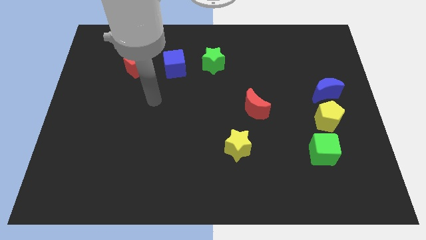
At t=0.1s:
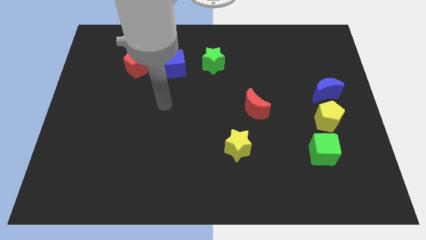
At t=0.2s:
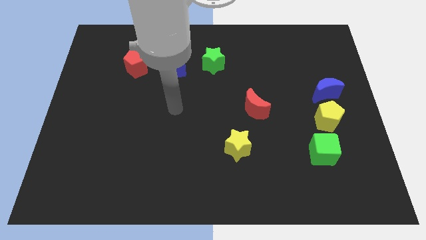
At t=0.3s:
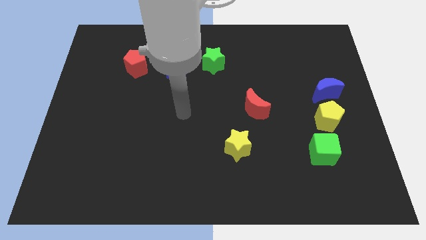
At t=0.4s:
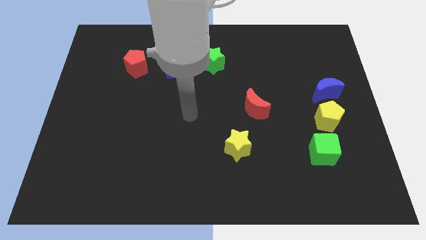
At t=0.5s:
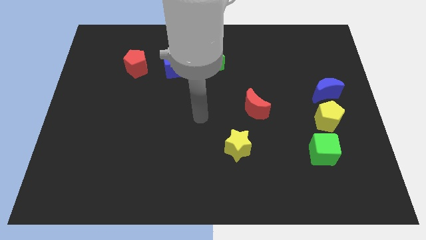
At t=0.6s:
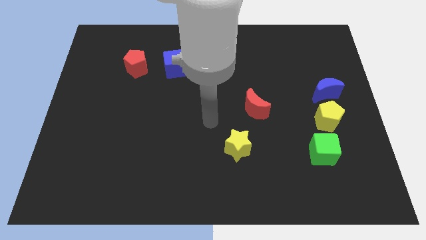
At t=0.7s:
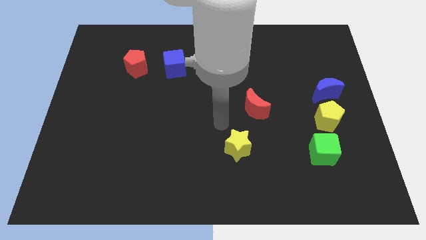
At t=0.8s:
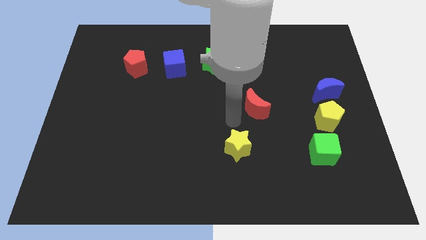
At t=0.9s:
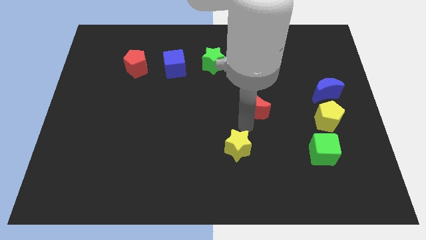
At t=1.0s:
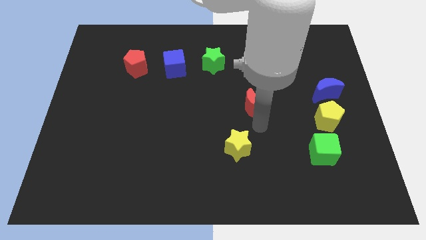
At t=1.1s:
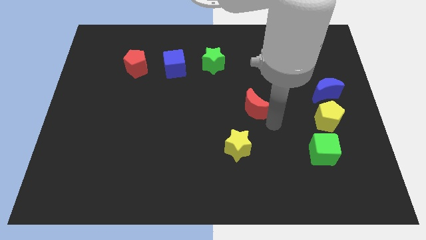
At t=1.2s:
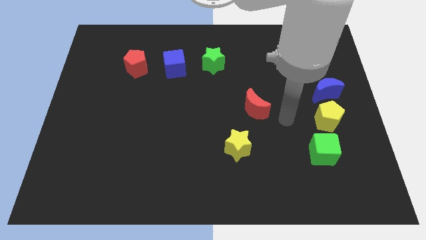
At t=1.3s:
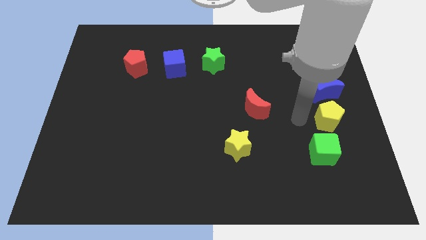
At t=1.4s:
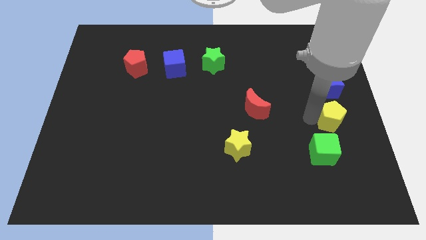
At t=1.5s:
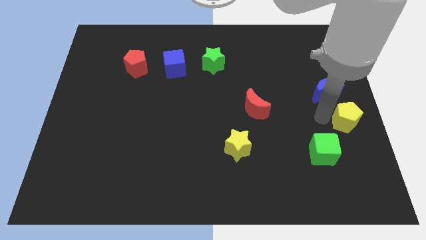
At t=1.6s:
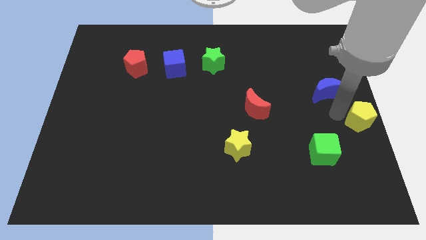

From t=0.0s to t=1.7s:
pull the blue moon apart from the yellow pentagon

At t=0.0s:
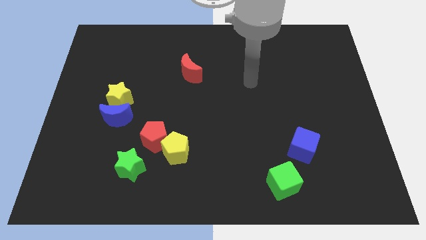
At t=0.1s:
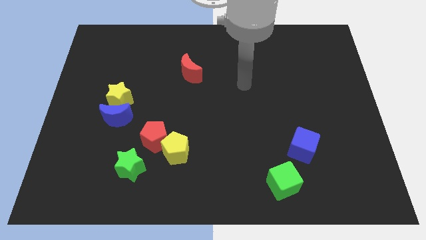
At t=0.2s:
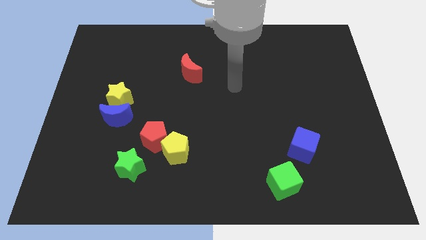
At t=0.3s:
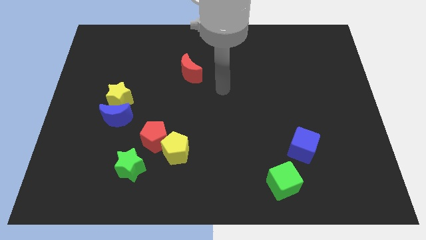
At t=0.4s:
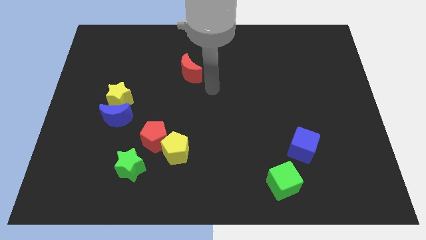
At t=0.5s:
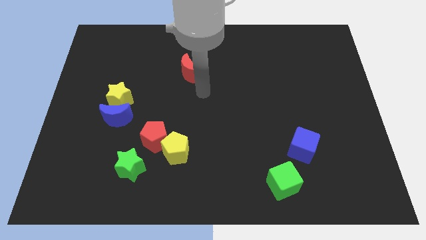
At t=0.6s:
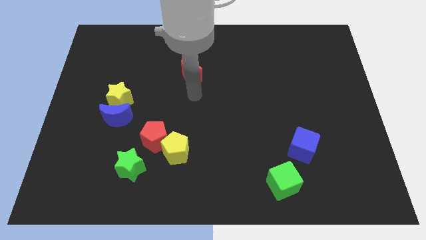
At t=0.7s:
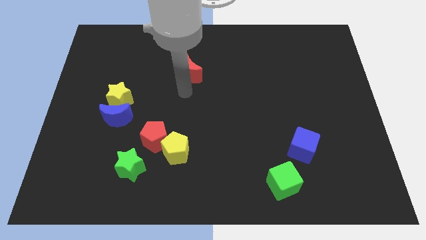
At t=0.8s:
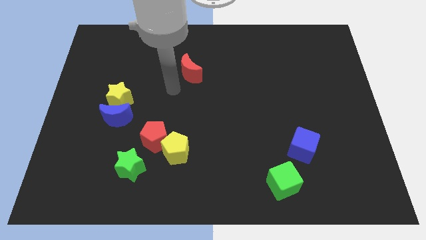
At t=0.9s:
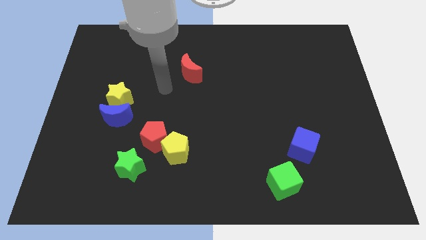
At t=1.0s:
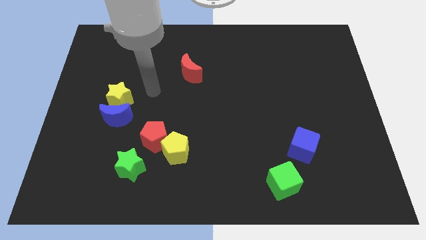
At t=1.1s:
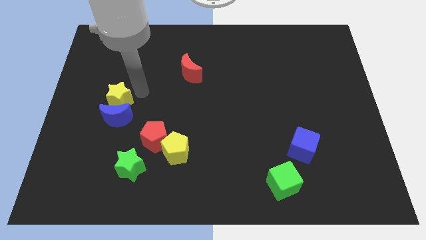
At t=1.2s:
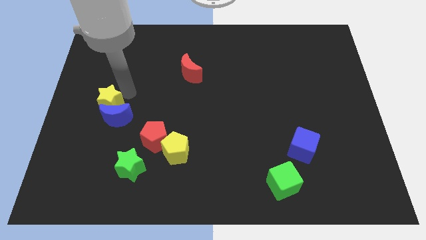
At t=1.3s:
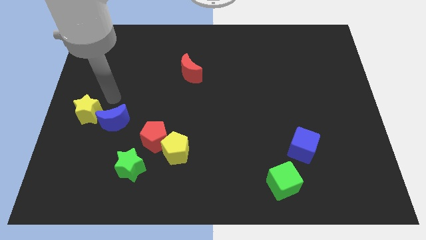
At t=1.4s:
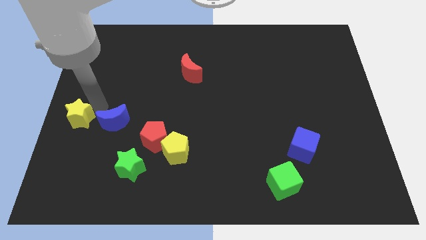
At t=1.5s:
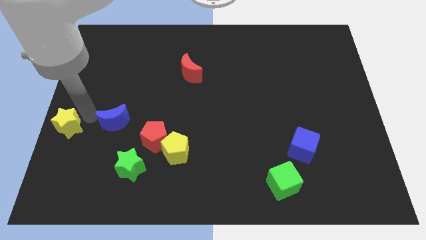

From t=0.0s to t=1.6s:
move the blue moon away from the yellow star

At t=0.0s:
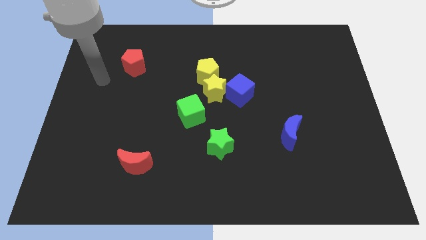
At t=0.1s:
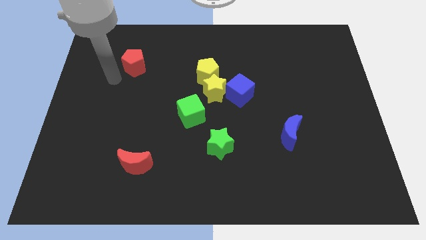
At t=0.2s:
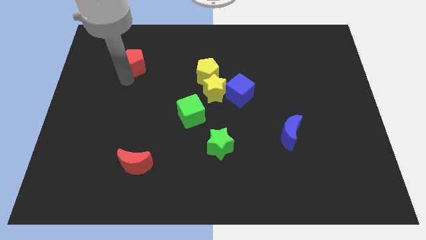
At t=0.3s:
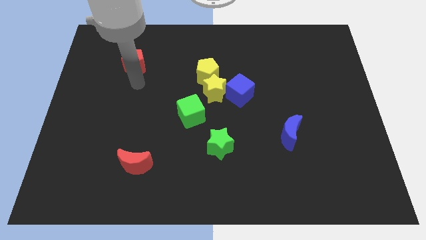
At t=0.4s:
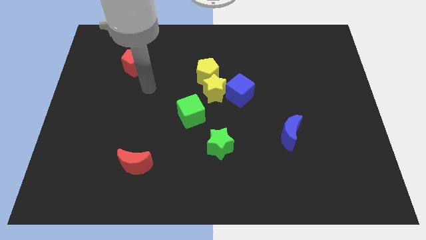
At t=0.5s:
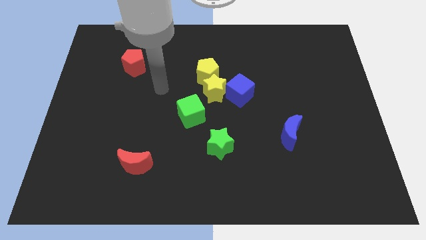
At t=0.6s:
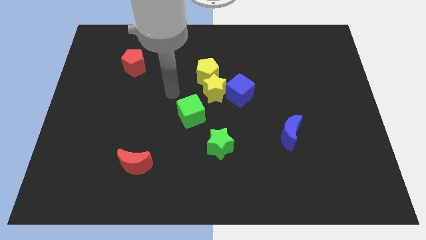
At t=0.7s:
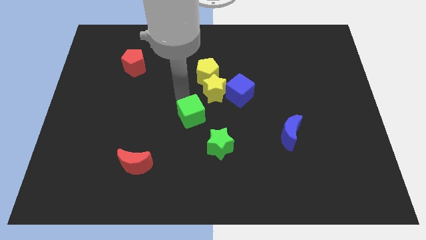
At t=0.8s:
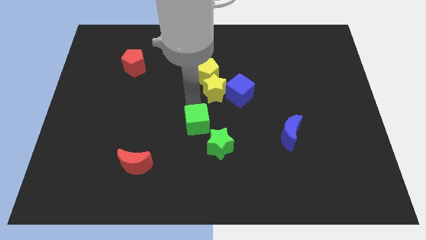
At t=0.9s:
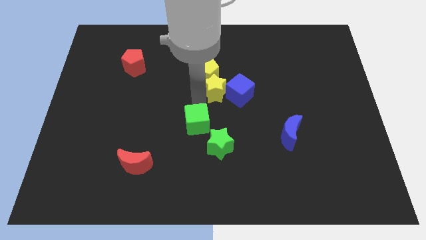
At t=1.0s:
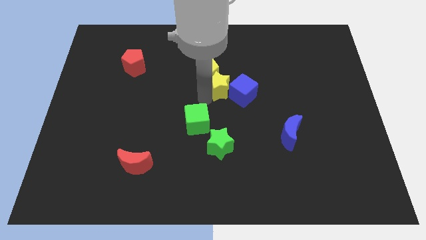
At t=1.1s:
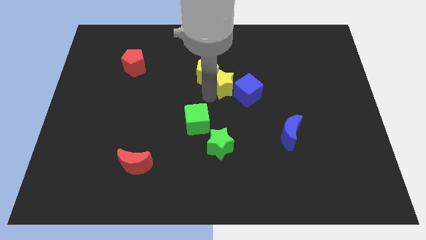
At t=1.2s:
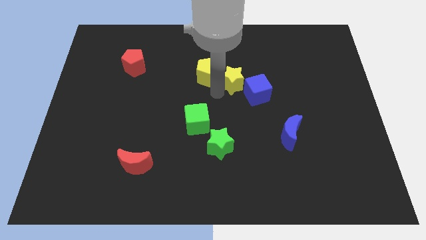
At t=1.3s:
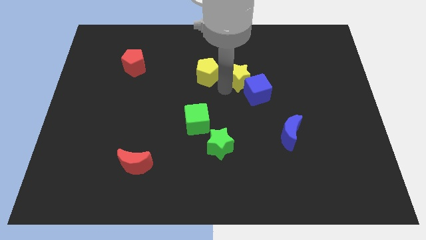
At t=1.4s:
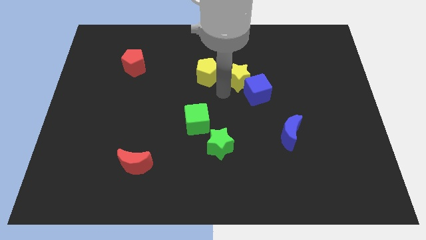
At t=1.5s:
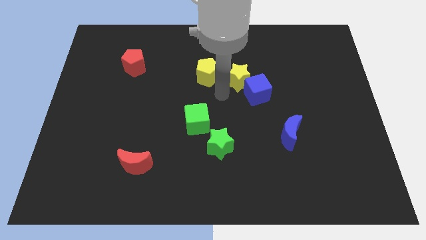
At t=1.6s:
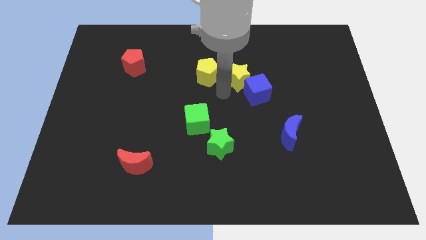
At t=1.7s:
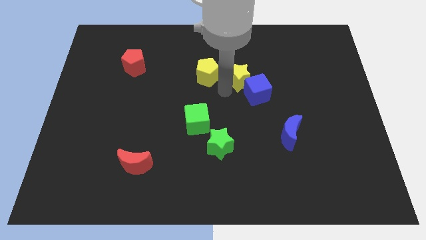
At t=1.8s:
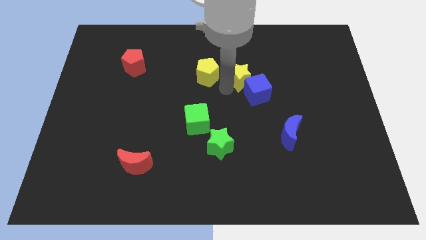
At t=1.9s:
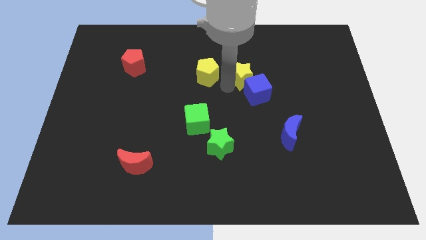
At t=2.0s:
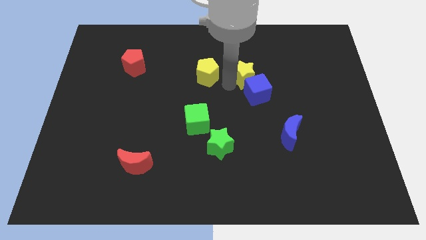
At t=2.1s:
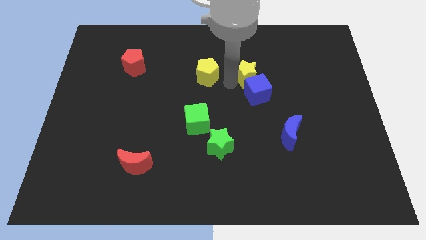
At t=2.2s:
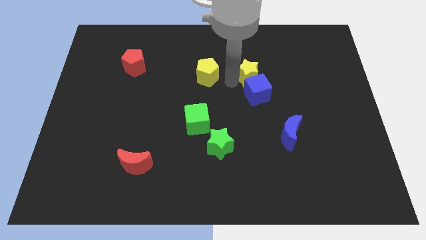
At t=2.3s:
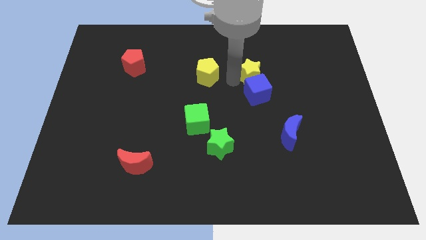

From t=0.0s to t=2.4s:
move the yellow star away from the clump

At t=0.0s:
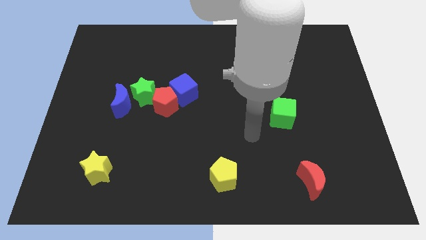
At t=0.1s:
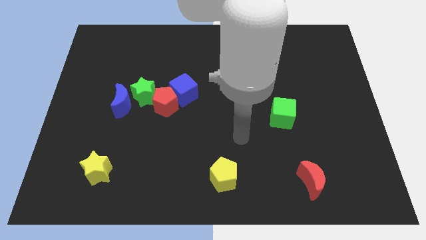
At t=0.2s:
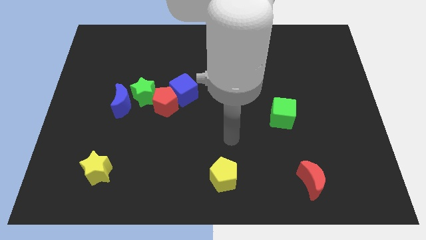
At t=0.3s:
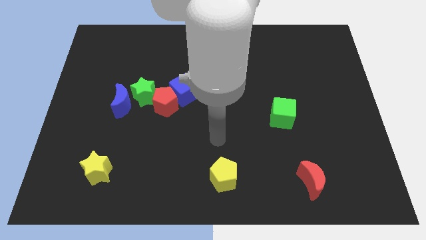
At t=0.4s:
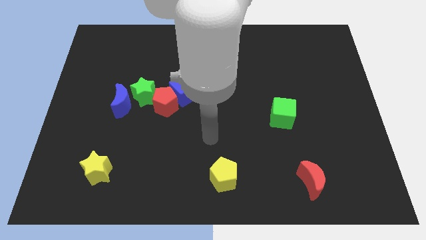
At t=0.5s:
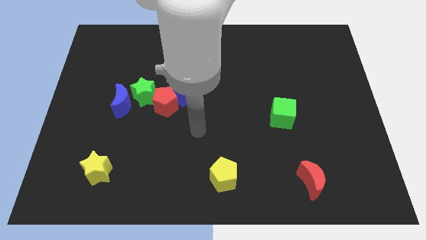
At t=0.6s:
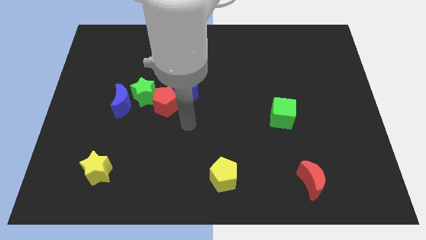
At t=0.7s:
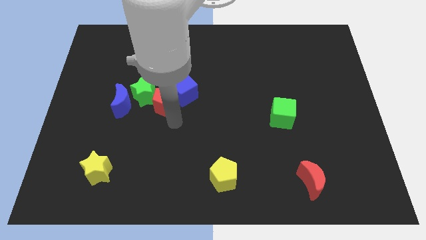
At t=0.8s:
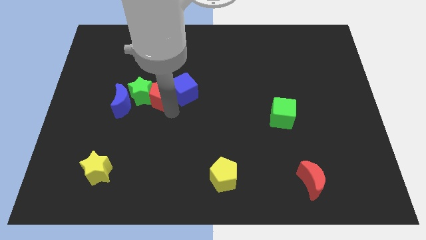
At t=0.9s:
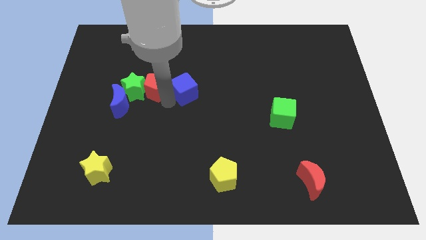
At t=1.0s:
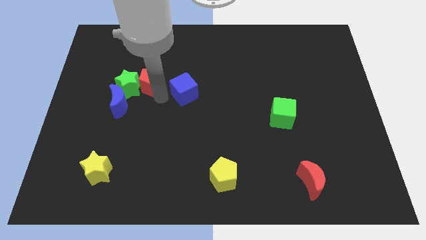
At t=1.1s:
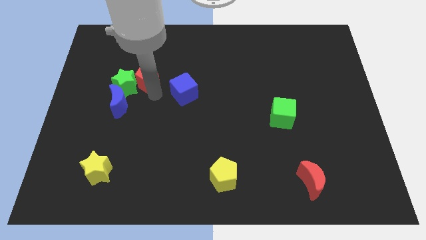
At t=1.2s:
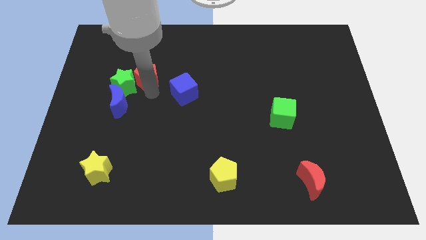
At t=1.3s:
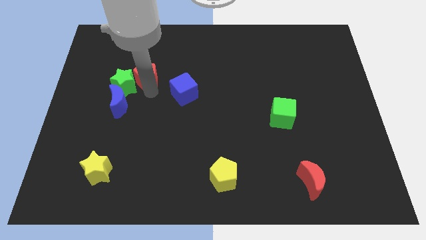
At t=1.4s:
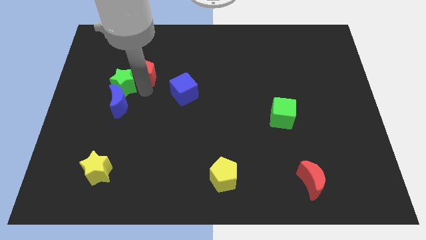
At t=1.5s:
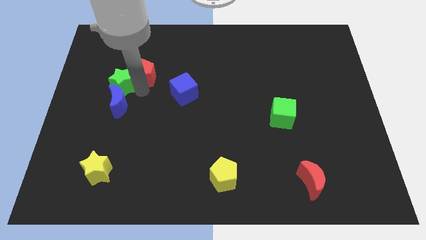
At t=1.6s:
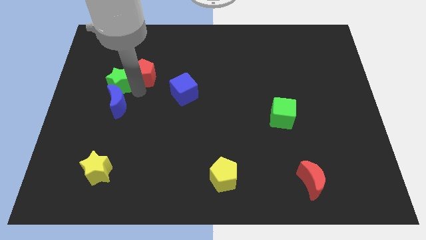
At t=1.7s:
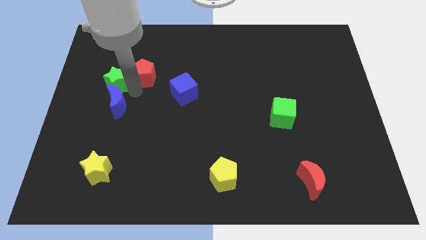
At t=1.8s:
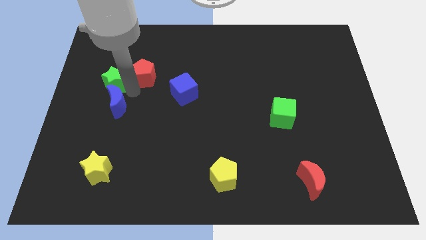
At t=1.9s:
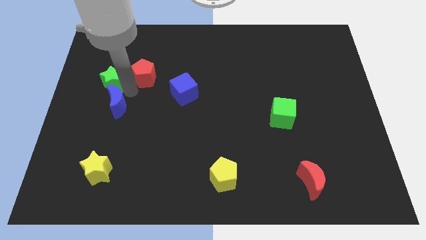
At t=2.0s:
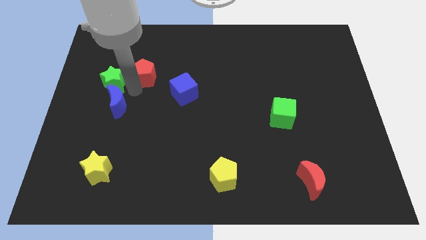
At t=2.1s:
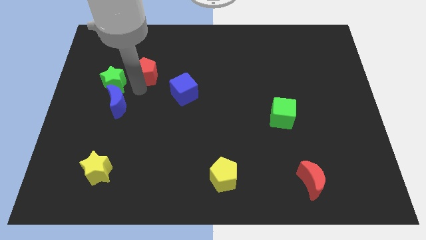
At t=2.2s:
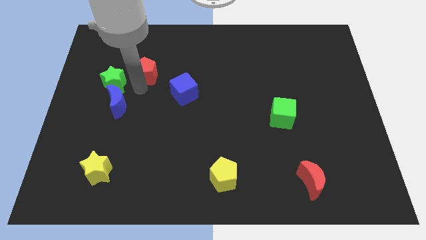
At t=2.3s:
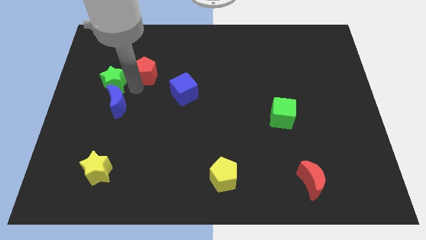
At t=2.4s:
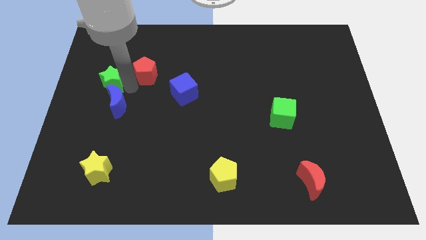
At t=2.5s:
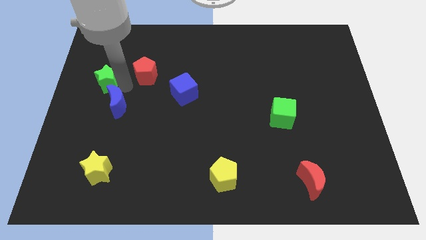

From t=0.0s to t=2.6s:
pull the green star apart from the clump

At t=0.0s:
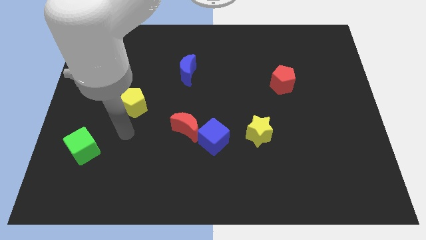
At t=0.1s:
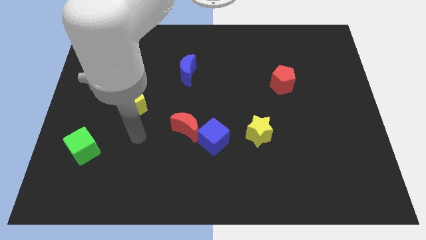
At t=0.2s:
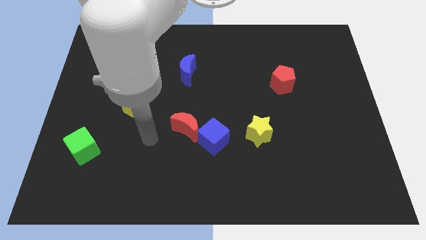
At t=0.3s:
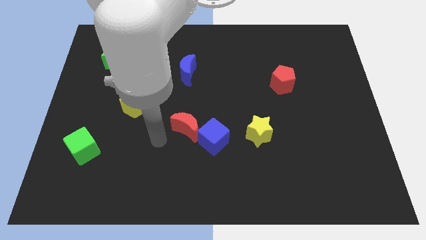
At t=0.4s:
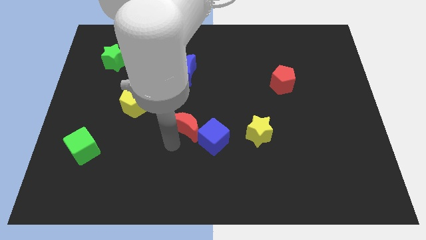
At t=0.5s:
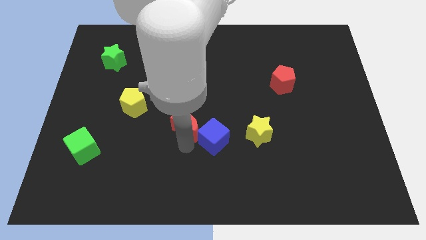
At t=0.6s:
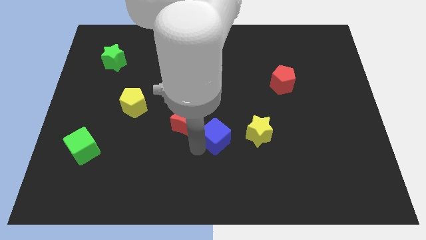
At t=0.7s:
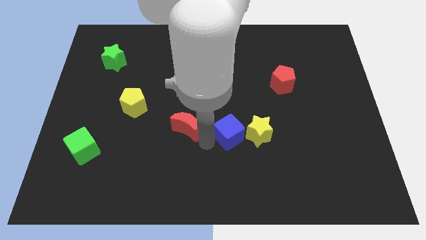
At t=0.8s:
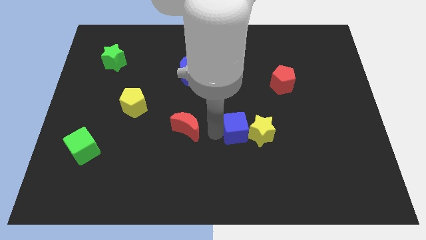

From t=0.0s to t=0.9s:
pull the red moon apart from the blue cube

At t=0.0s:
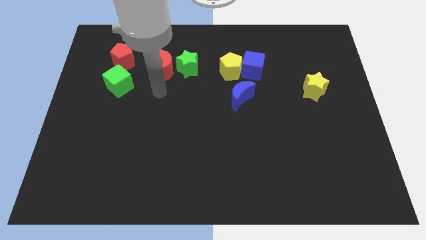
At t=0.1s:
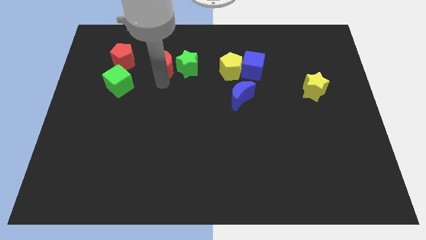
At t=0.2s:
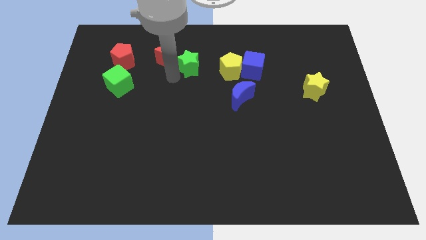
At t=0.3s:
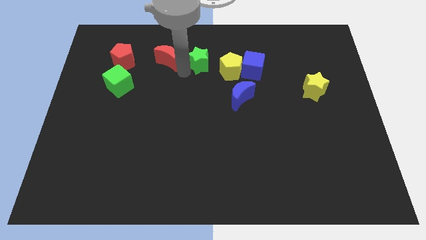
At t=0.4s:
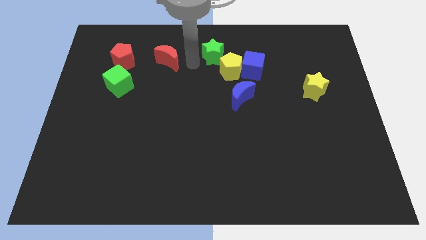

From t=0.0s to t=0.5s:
separate the red moon from the green star
